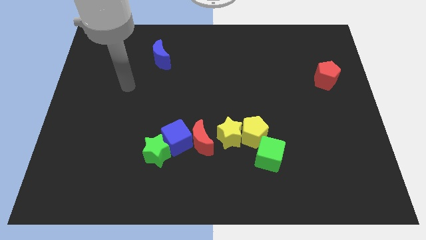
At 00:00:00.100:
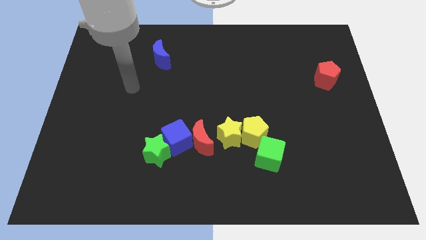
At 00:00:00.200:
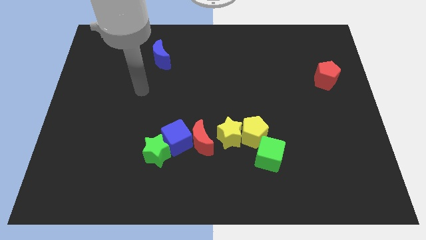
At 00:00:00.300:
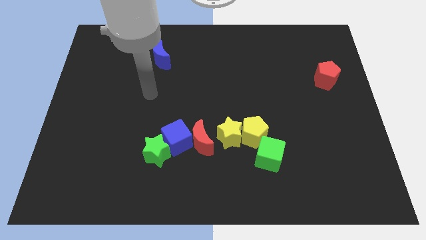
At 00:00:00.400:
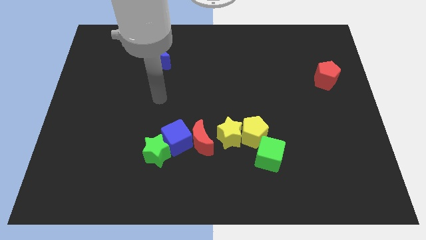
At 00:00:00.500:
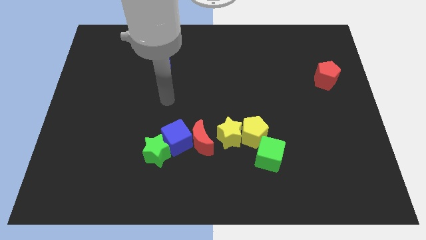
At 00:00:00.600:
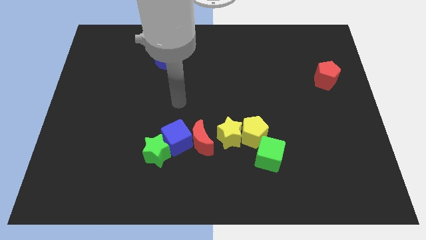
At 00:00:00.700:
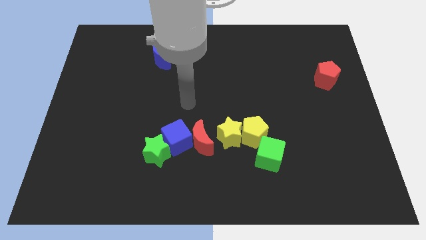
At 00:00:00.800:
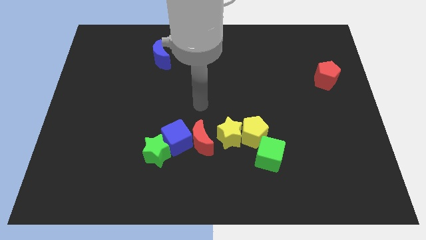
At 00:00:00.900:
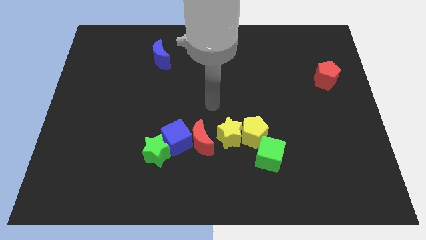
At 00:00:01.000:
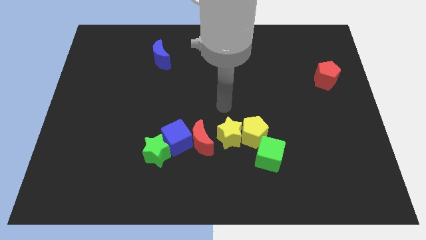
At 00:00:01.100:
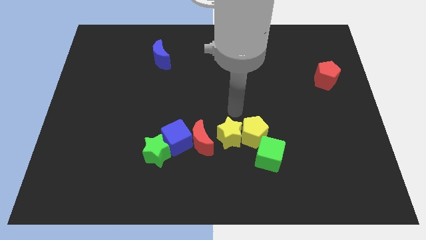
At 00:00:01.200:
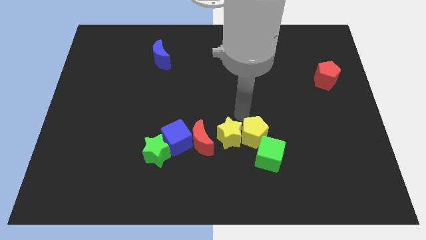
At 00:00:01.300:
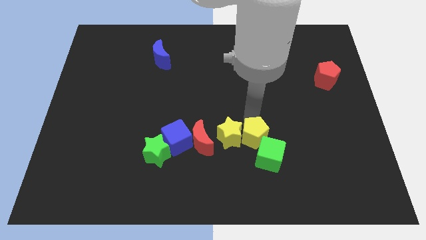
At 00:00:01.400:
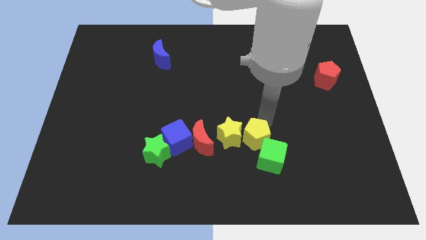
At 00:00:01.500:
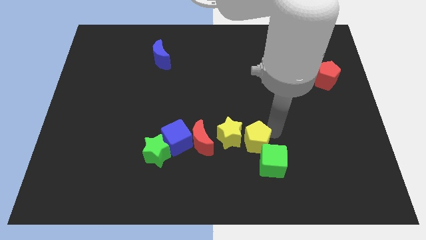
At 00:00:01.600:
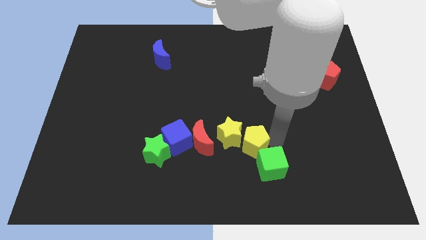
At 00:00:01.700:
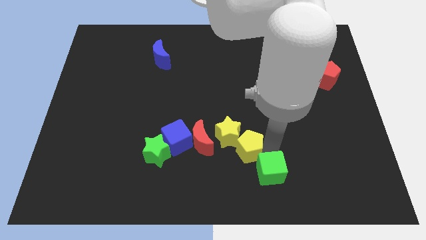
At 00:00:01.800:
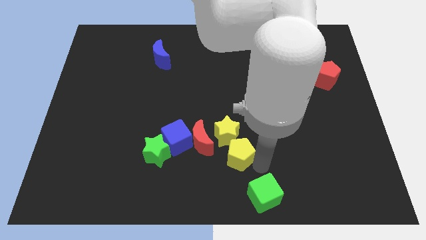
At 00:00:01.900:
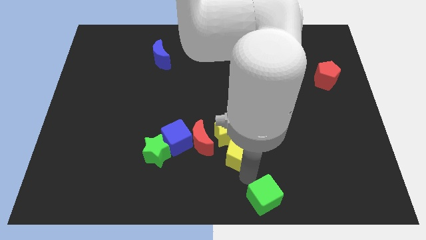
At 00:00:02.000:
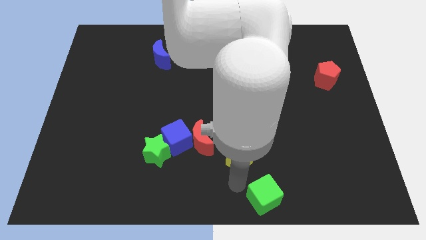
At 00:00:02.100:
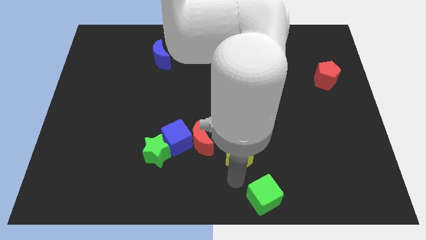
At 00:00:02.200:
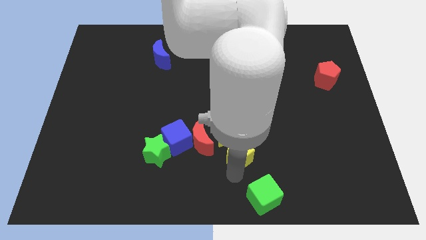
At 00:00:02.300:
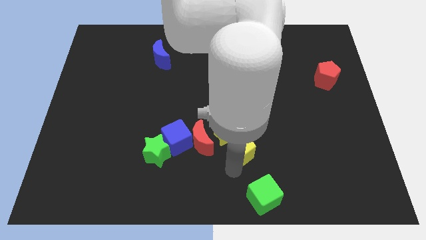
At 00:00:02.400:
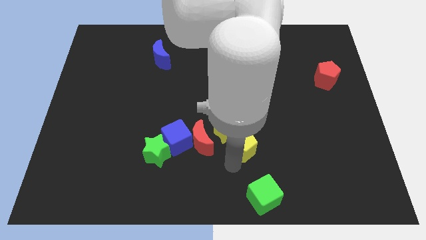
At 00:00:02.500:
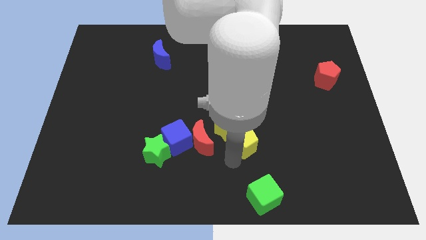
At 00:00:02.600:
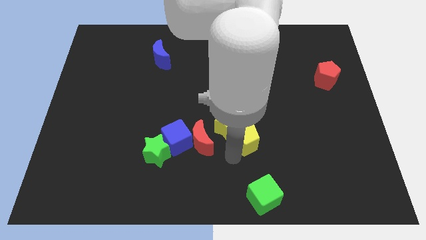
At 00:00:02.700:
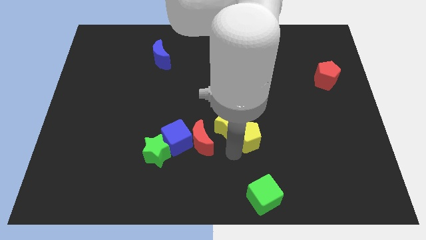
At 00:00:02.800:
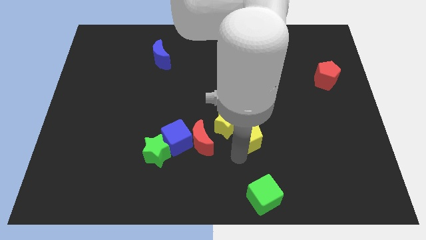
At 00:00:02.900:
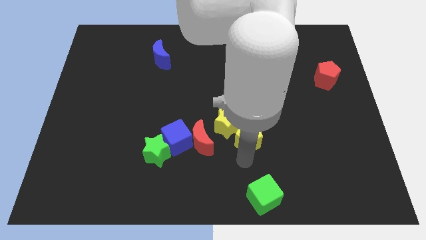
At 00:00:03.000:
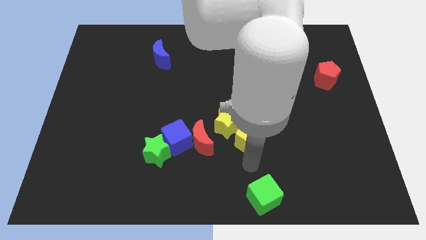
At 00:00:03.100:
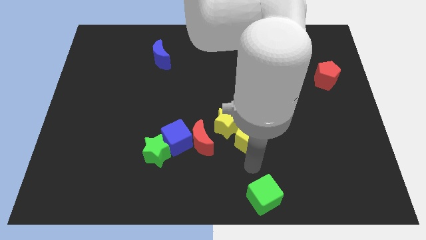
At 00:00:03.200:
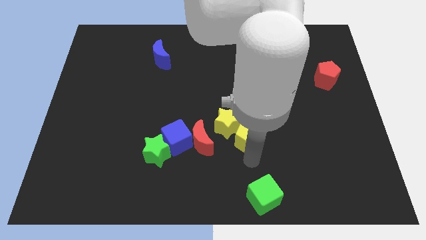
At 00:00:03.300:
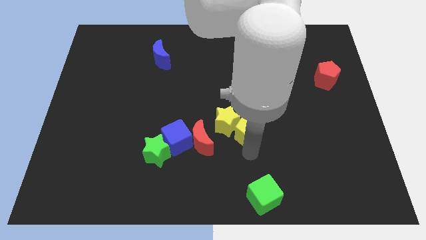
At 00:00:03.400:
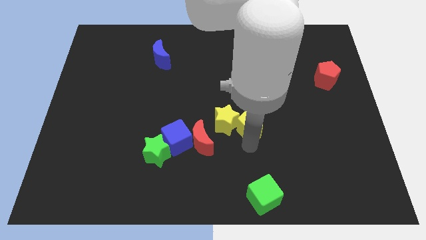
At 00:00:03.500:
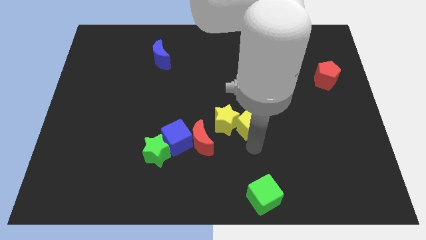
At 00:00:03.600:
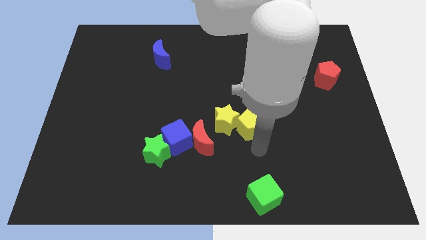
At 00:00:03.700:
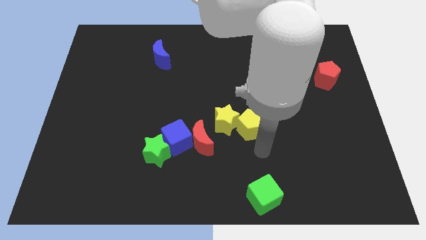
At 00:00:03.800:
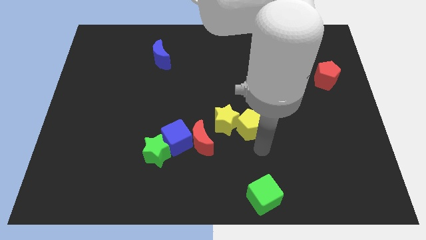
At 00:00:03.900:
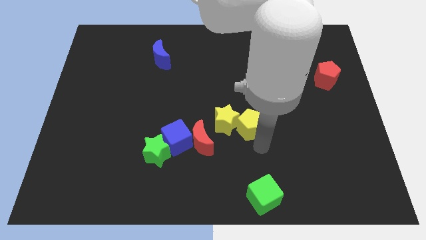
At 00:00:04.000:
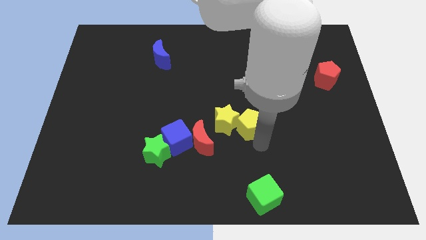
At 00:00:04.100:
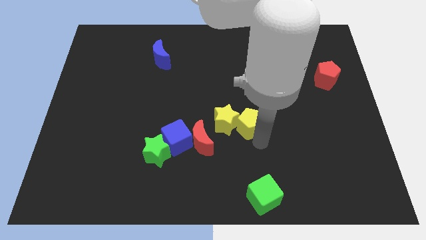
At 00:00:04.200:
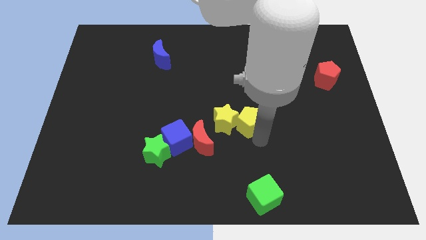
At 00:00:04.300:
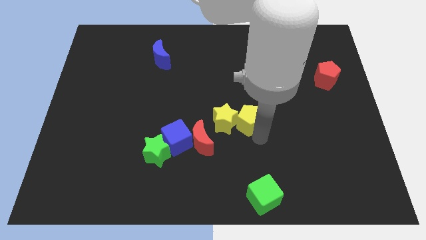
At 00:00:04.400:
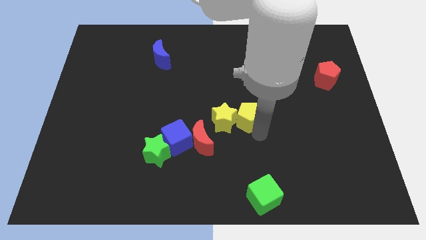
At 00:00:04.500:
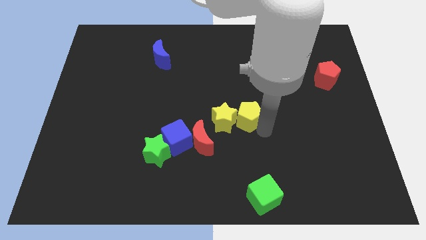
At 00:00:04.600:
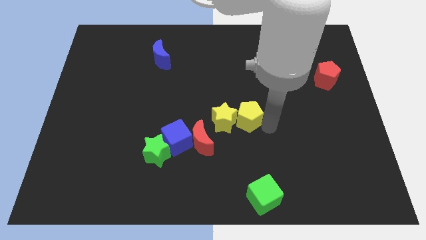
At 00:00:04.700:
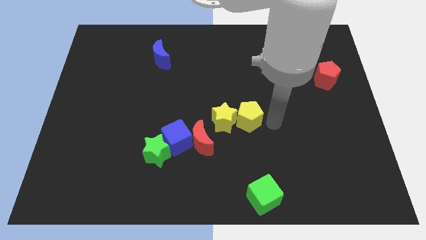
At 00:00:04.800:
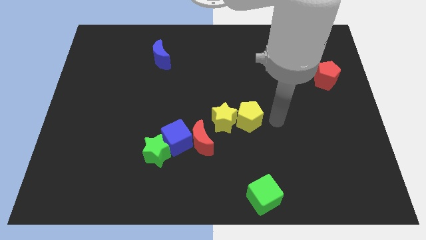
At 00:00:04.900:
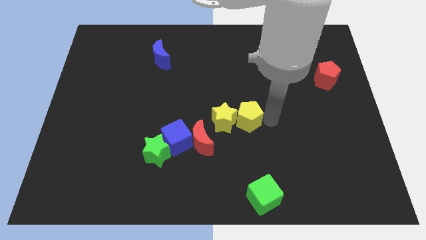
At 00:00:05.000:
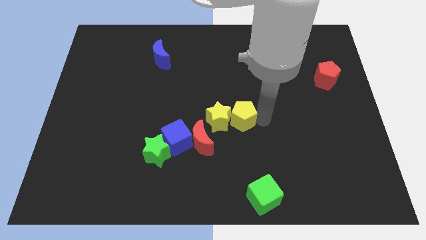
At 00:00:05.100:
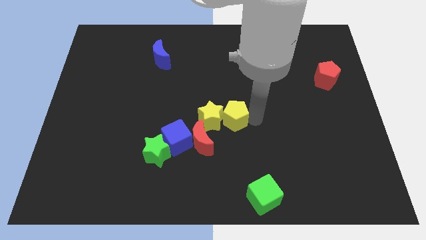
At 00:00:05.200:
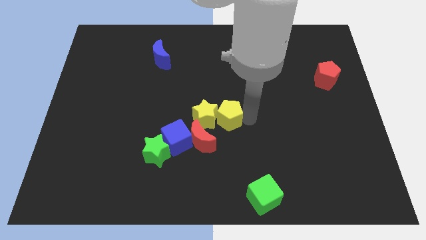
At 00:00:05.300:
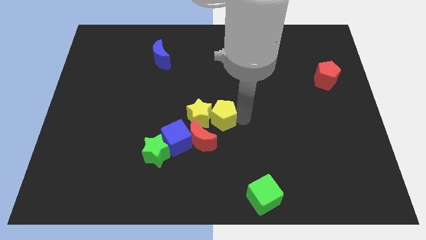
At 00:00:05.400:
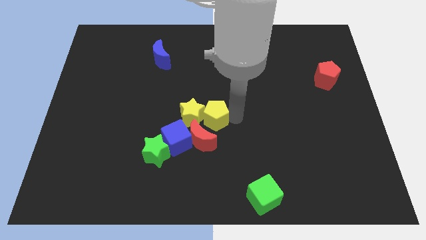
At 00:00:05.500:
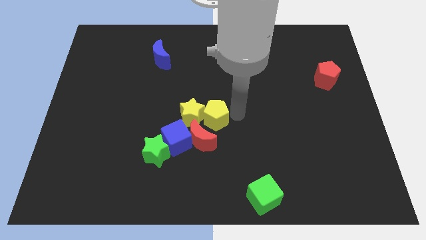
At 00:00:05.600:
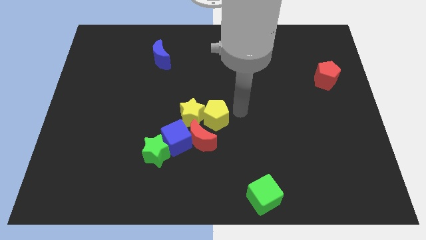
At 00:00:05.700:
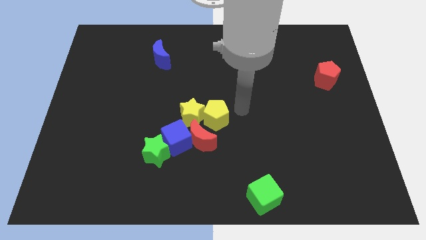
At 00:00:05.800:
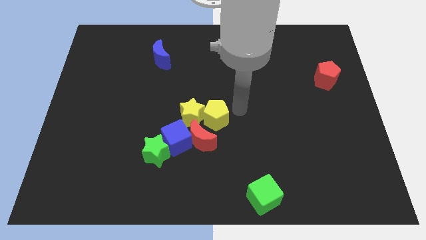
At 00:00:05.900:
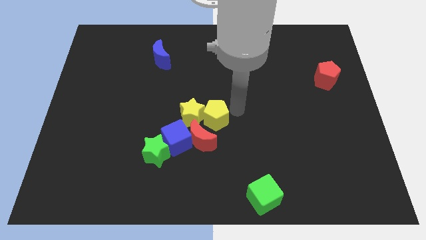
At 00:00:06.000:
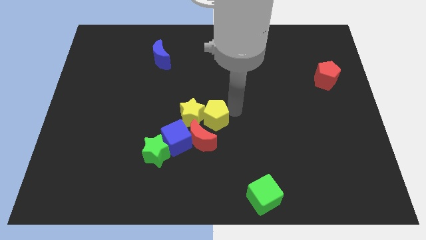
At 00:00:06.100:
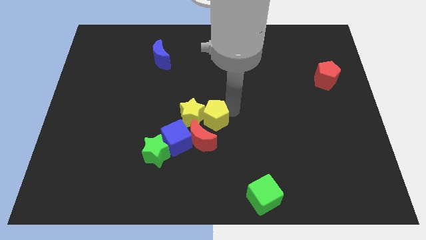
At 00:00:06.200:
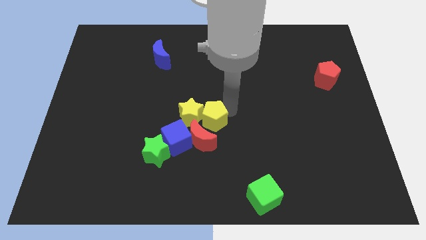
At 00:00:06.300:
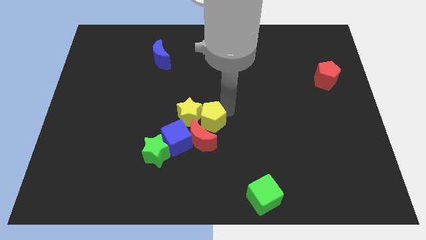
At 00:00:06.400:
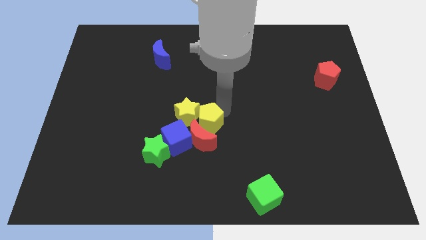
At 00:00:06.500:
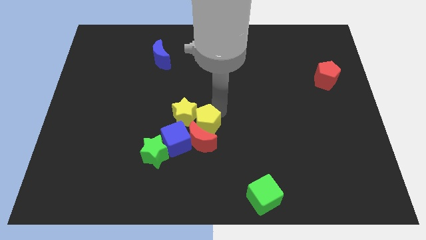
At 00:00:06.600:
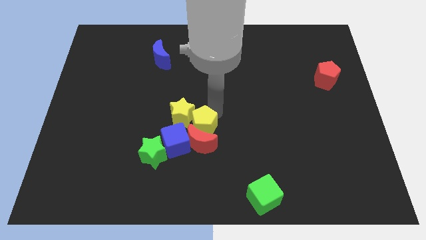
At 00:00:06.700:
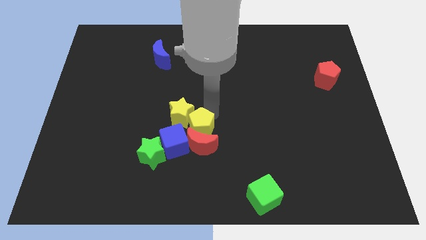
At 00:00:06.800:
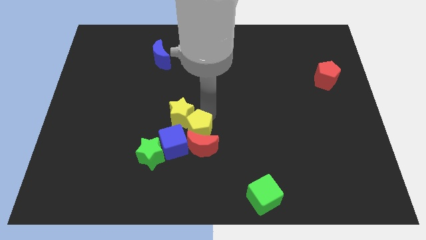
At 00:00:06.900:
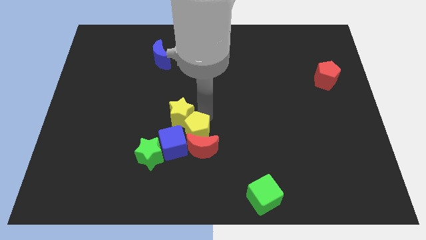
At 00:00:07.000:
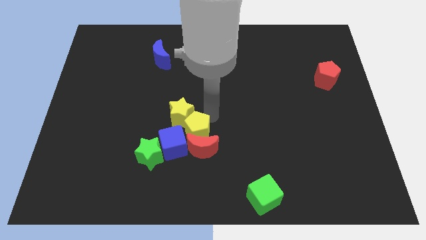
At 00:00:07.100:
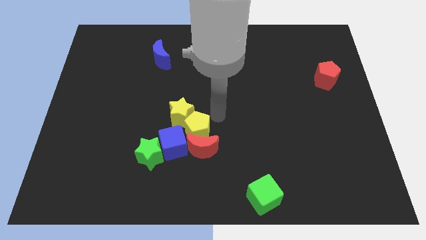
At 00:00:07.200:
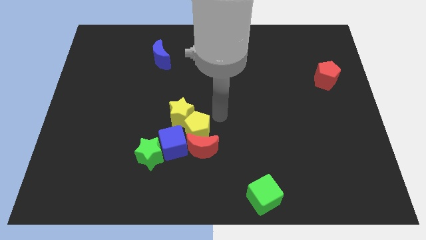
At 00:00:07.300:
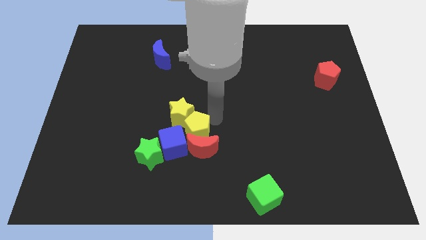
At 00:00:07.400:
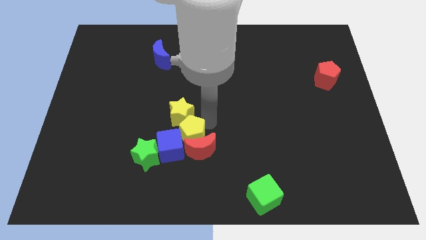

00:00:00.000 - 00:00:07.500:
move the yellow pentagon next to the blue cube
